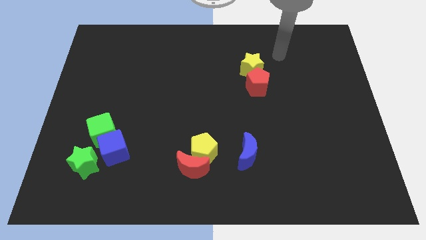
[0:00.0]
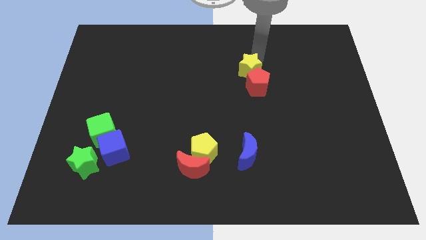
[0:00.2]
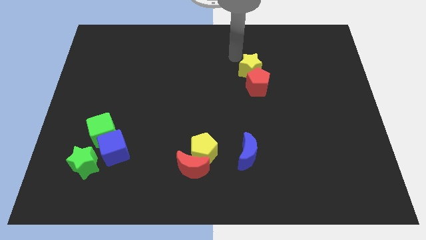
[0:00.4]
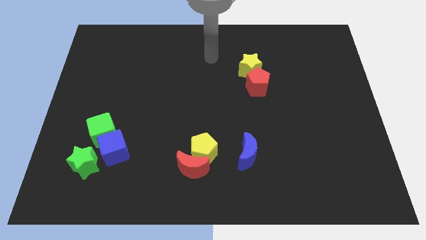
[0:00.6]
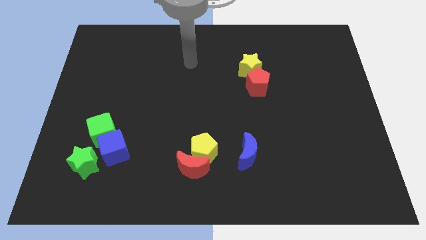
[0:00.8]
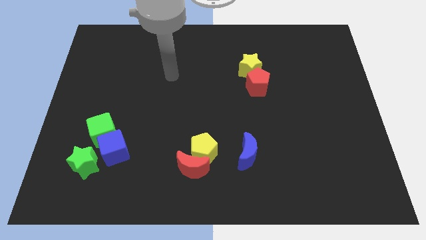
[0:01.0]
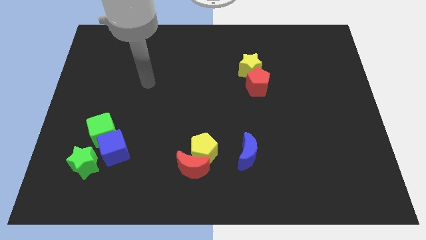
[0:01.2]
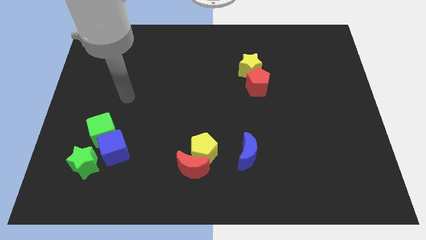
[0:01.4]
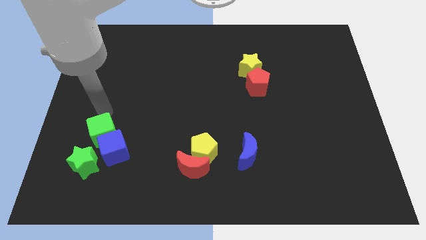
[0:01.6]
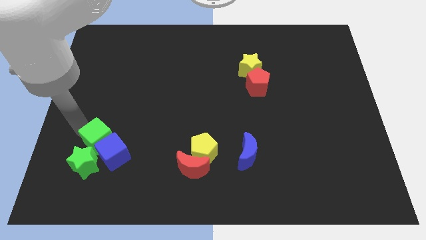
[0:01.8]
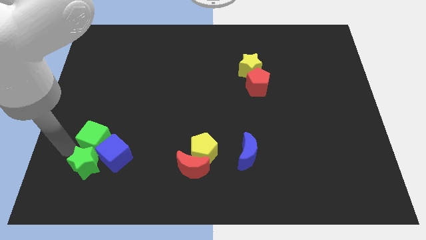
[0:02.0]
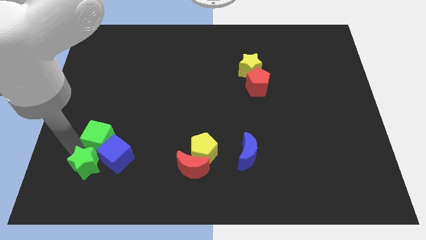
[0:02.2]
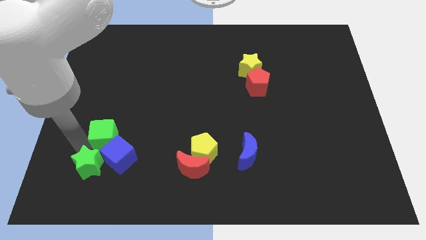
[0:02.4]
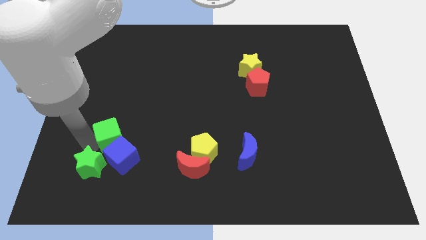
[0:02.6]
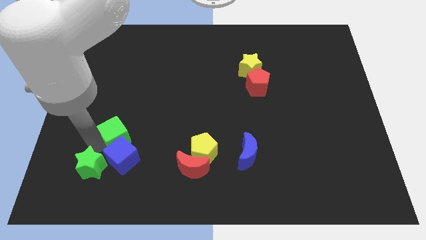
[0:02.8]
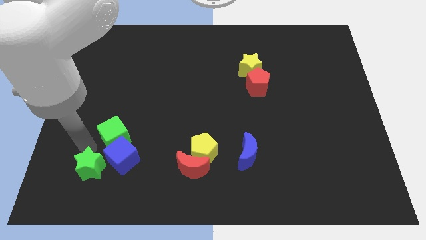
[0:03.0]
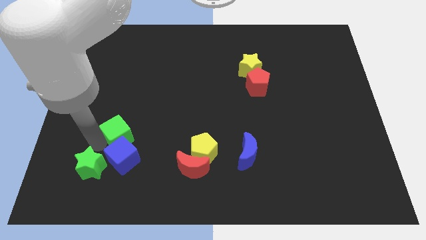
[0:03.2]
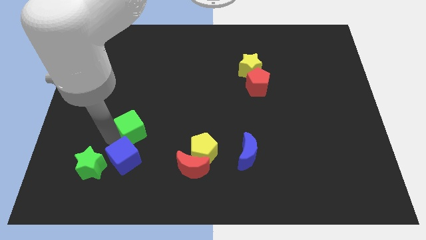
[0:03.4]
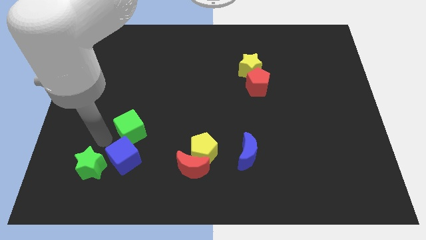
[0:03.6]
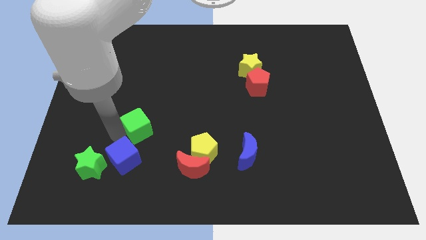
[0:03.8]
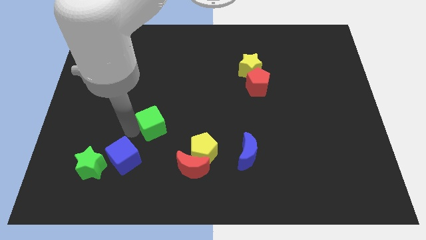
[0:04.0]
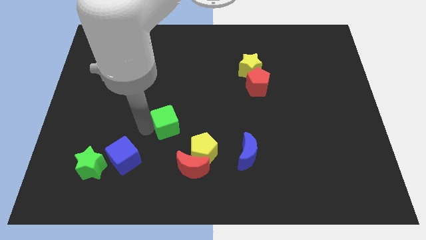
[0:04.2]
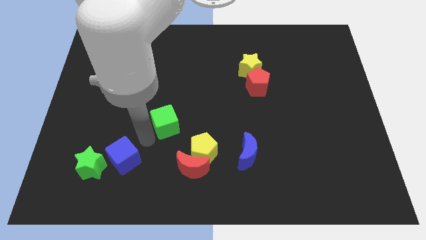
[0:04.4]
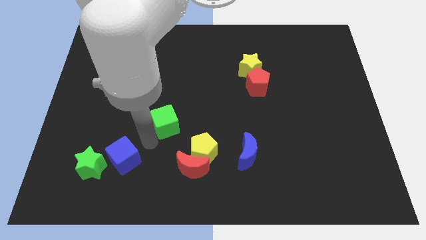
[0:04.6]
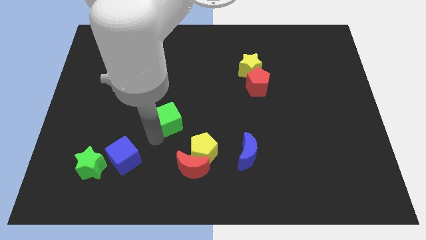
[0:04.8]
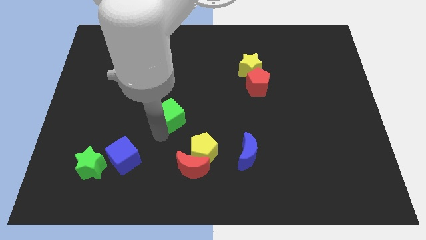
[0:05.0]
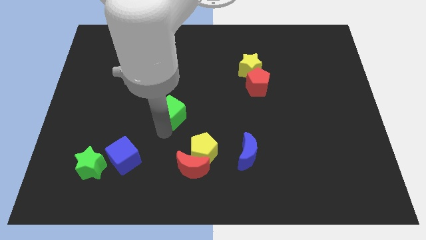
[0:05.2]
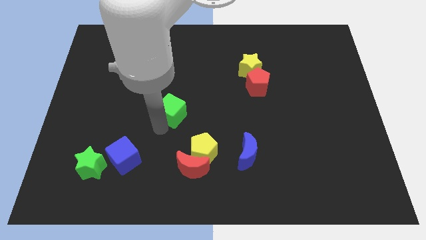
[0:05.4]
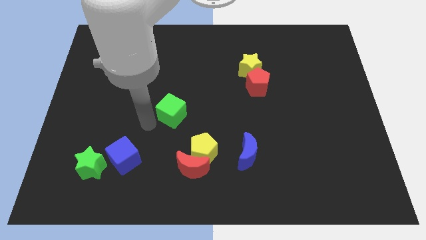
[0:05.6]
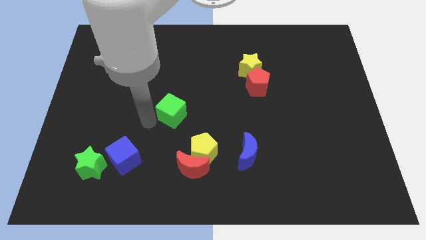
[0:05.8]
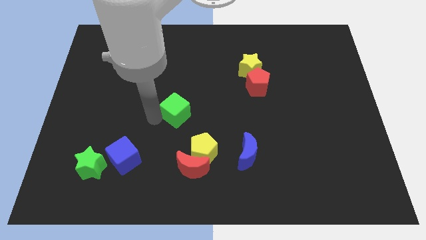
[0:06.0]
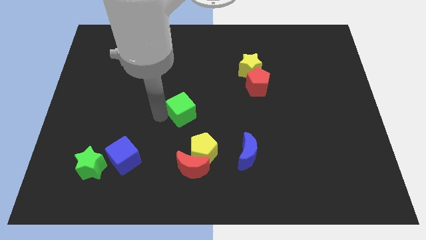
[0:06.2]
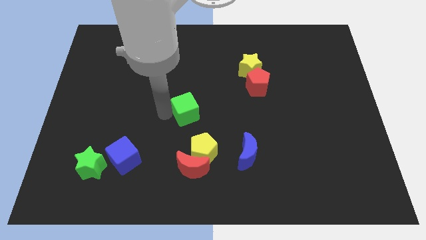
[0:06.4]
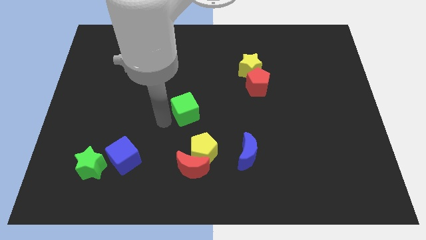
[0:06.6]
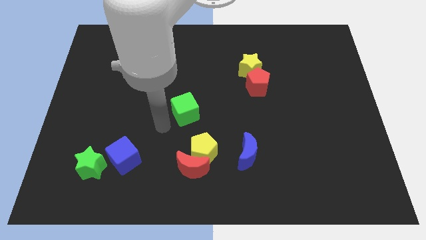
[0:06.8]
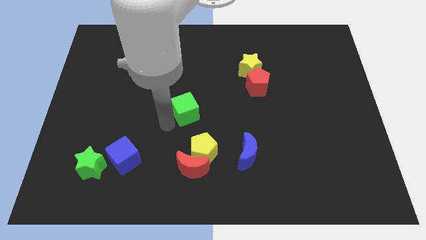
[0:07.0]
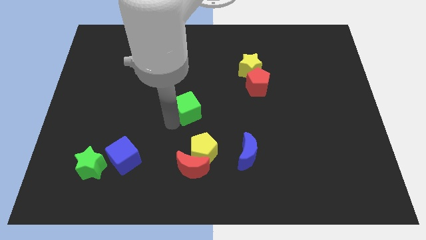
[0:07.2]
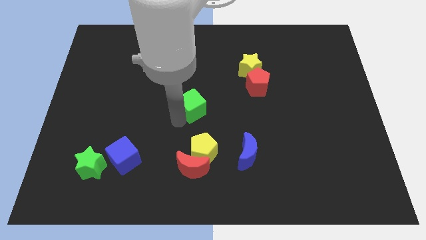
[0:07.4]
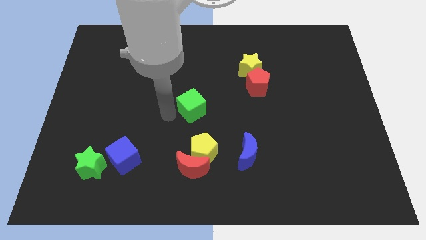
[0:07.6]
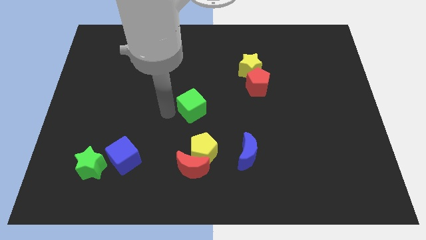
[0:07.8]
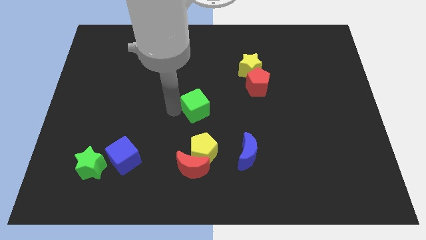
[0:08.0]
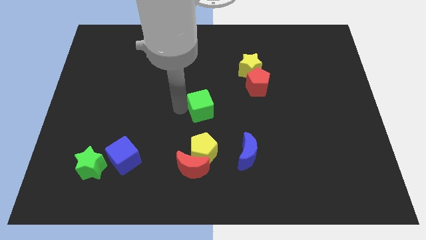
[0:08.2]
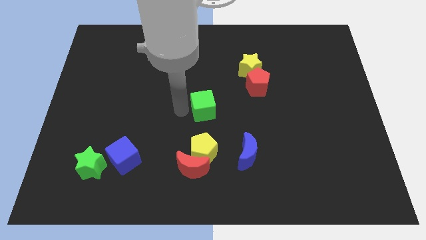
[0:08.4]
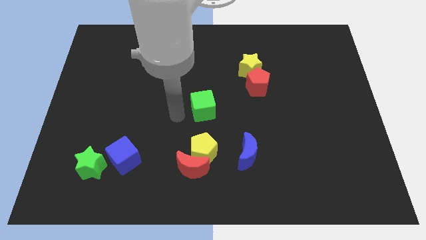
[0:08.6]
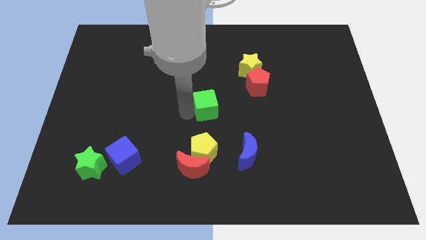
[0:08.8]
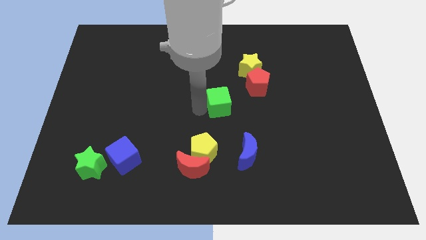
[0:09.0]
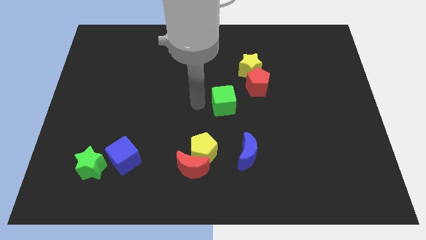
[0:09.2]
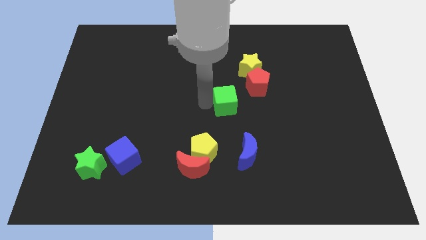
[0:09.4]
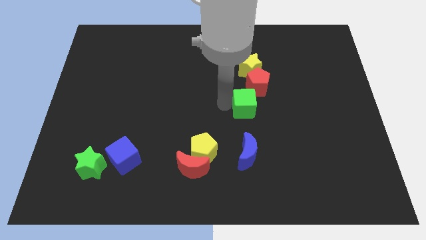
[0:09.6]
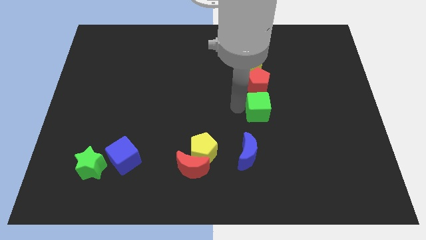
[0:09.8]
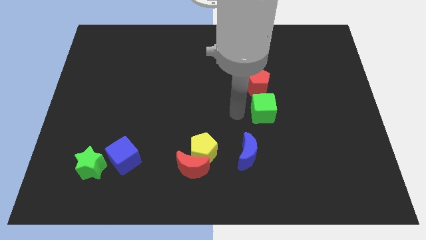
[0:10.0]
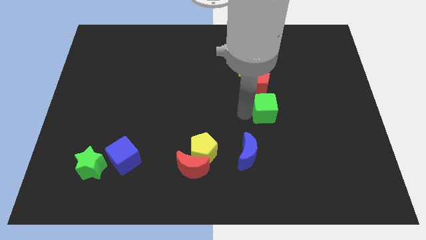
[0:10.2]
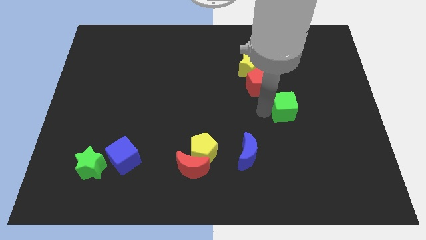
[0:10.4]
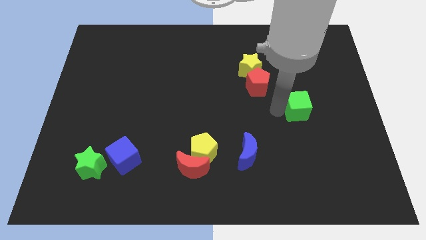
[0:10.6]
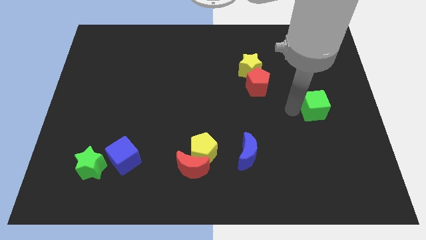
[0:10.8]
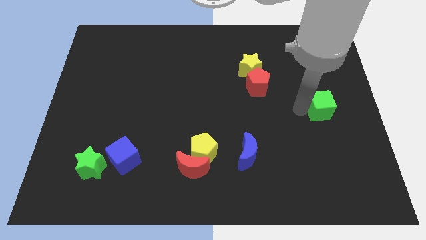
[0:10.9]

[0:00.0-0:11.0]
put the green cube to the center right
